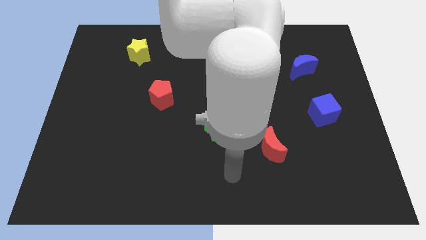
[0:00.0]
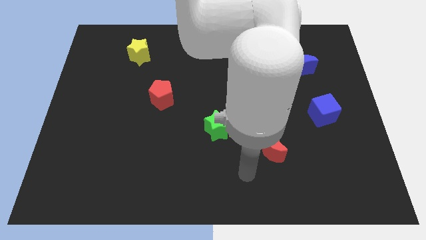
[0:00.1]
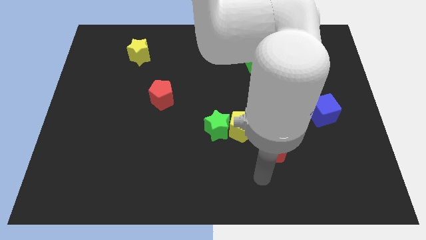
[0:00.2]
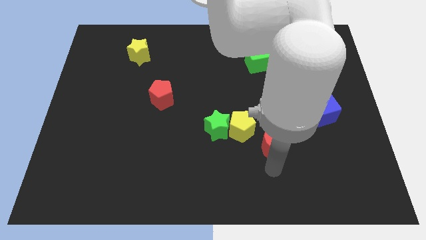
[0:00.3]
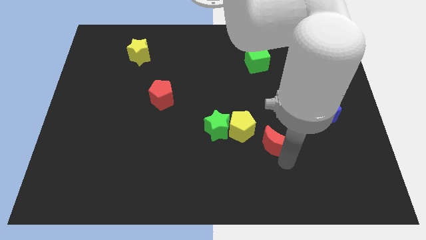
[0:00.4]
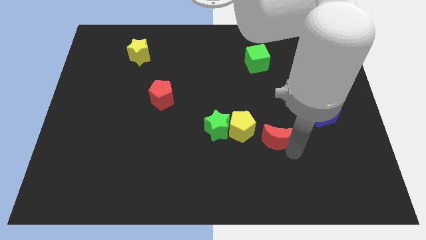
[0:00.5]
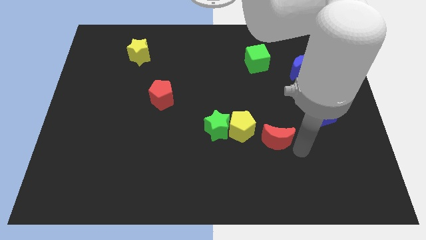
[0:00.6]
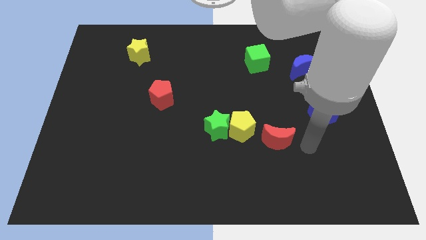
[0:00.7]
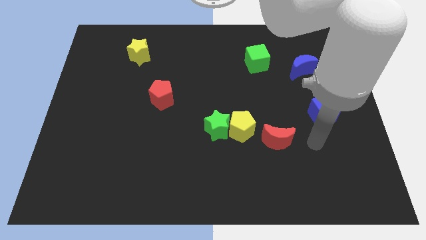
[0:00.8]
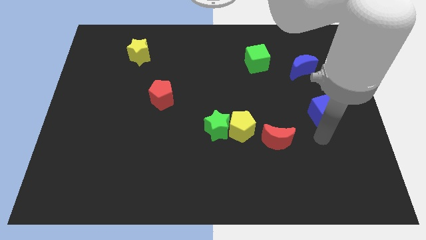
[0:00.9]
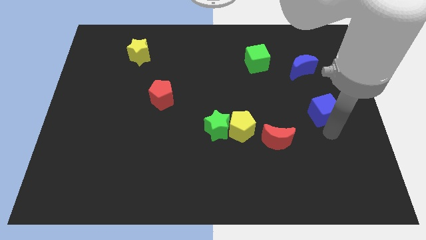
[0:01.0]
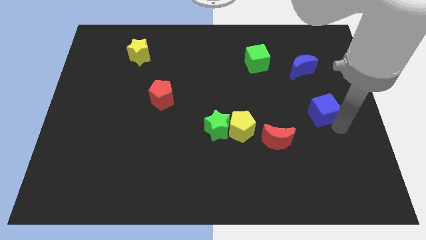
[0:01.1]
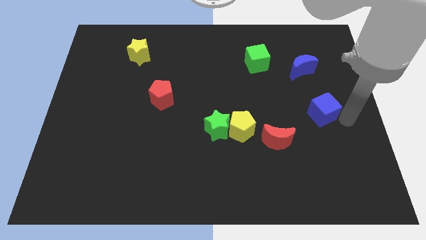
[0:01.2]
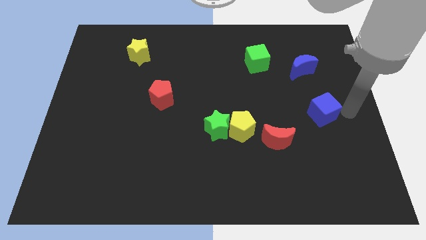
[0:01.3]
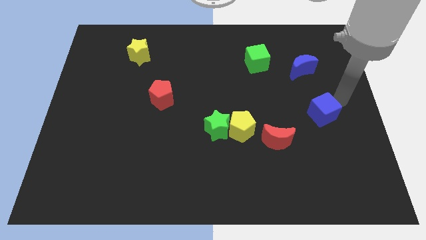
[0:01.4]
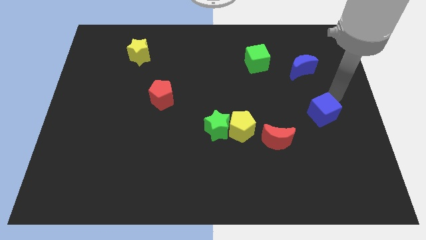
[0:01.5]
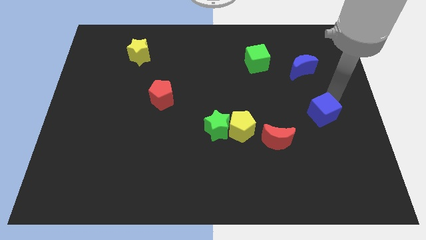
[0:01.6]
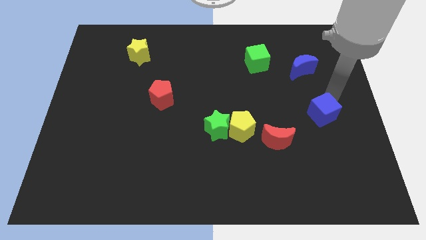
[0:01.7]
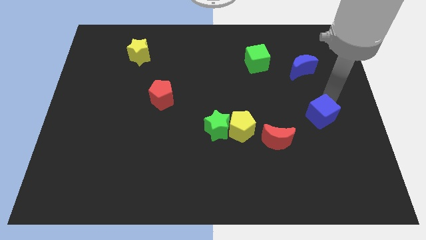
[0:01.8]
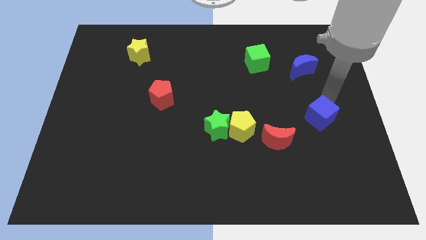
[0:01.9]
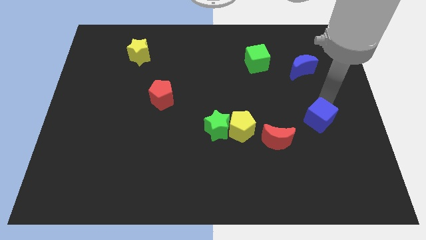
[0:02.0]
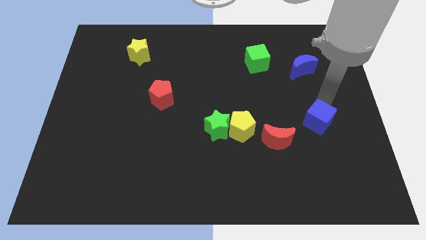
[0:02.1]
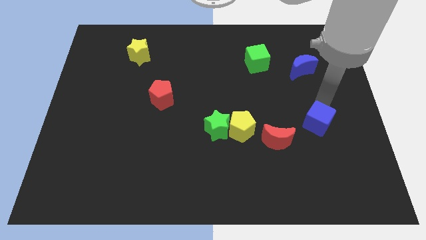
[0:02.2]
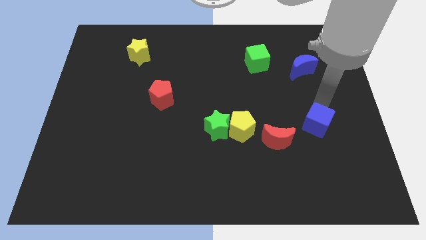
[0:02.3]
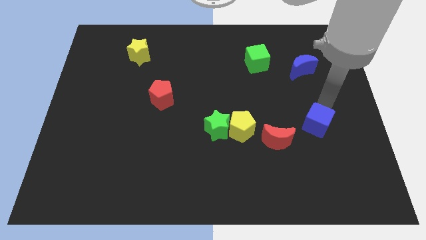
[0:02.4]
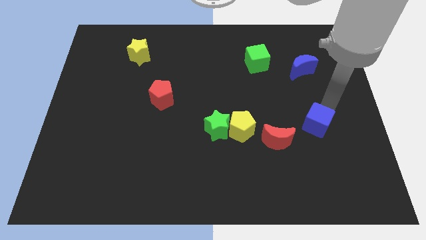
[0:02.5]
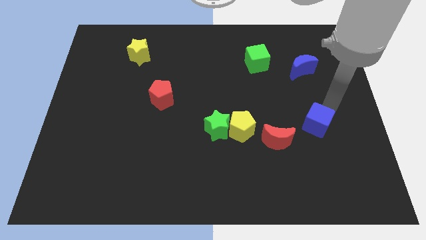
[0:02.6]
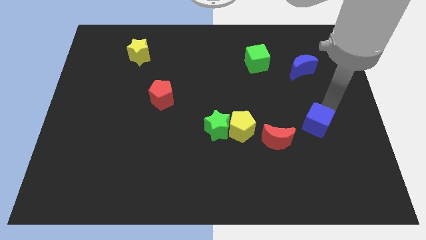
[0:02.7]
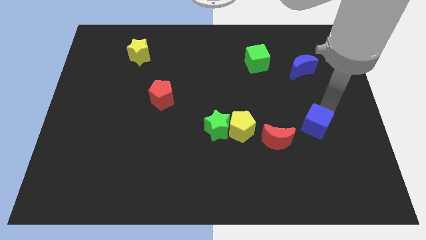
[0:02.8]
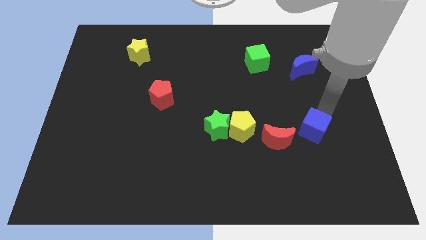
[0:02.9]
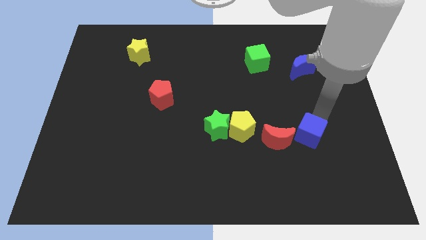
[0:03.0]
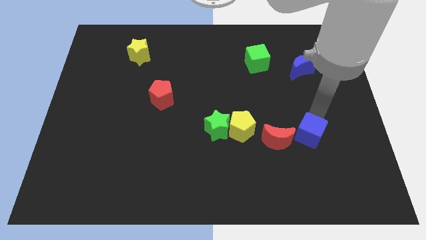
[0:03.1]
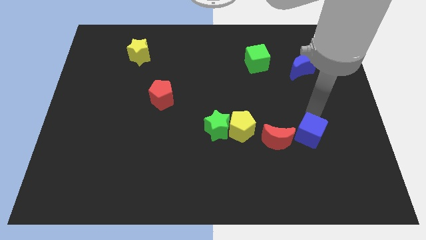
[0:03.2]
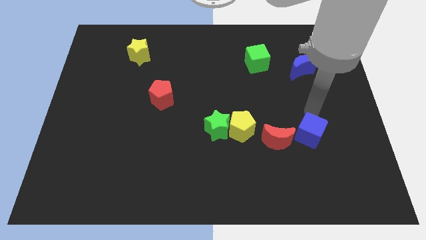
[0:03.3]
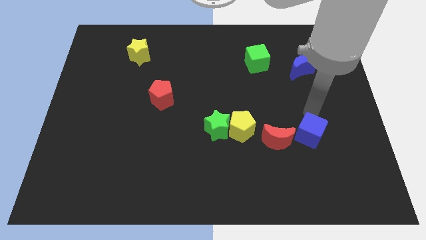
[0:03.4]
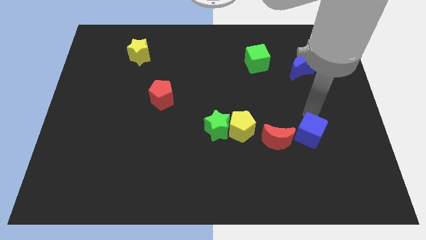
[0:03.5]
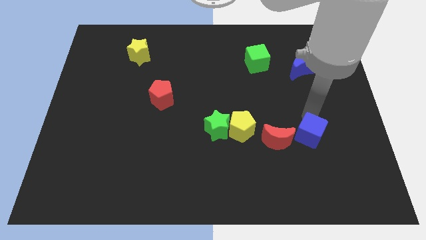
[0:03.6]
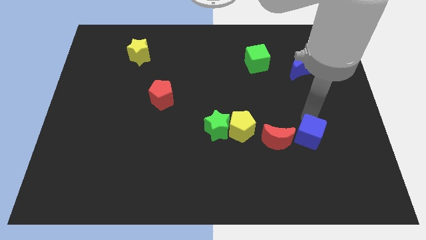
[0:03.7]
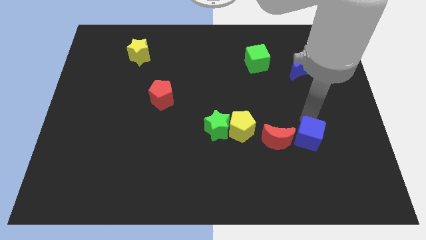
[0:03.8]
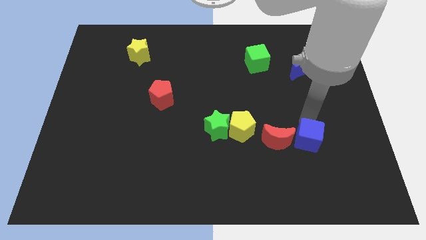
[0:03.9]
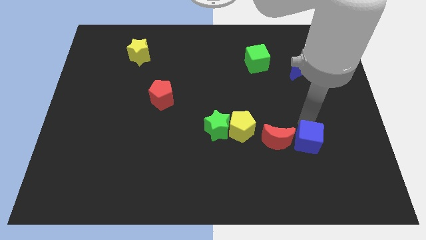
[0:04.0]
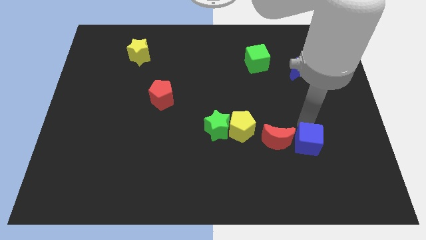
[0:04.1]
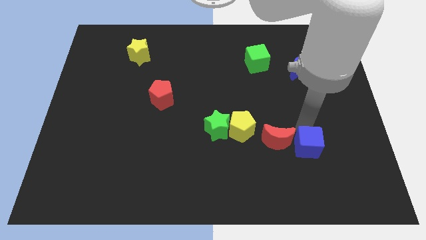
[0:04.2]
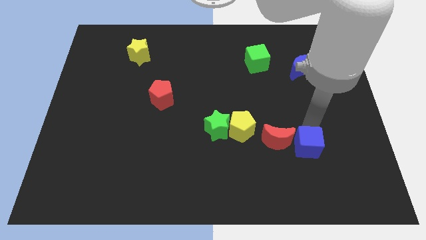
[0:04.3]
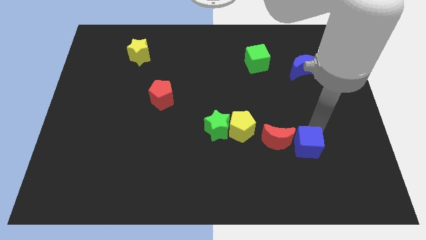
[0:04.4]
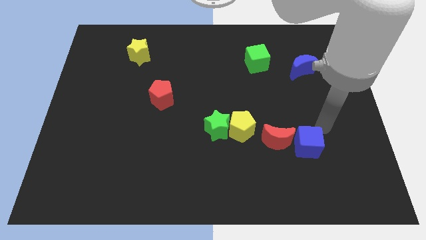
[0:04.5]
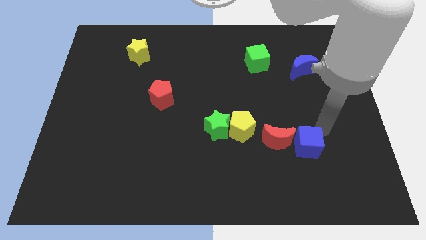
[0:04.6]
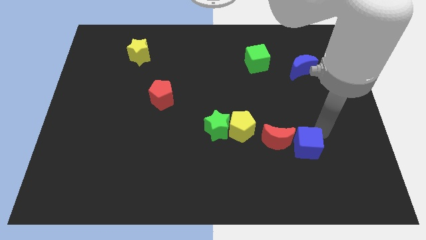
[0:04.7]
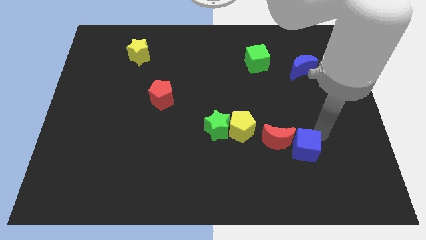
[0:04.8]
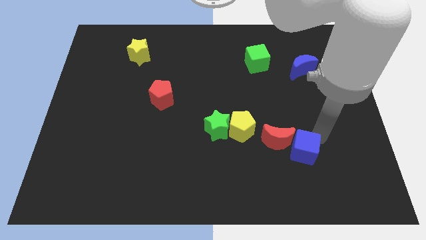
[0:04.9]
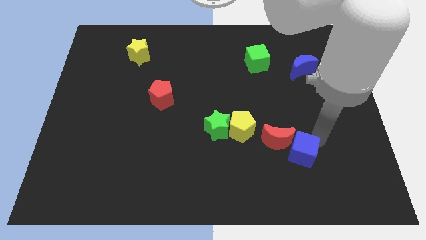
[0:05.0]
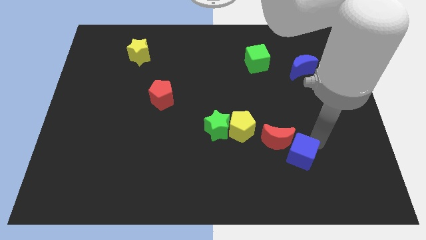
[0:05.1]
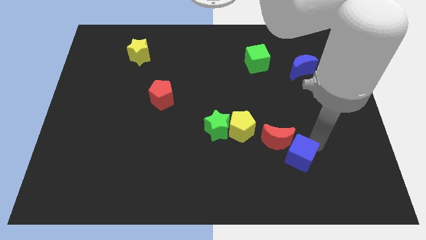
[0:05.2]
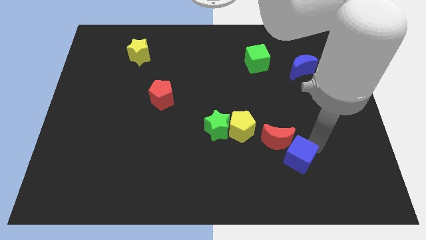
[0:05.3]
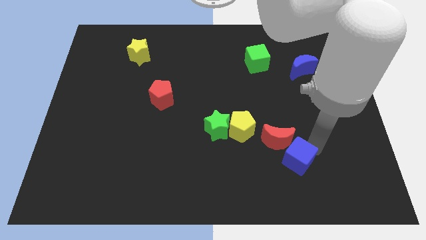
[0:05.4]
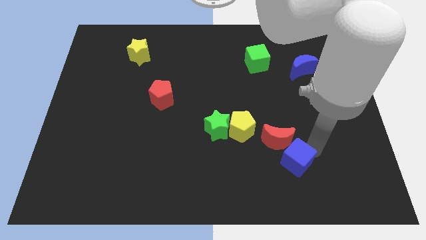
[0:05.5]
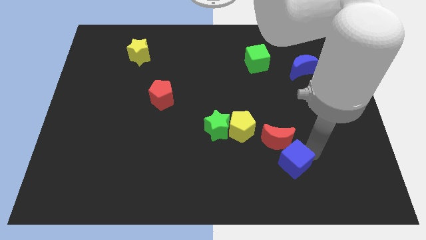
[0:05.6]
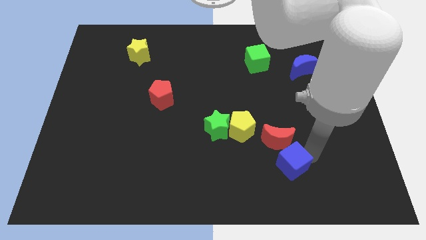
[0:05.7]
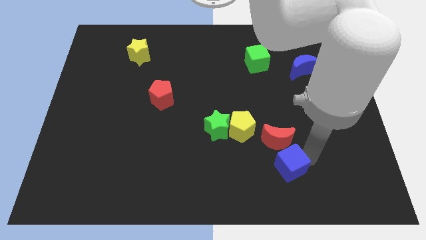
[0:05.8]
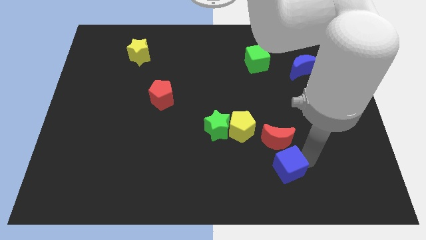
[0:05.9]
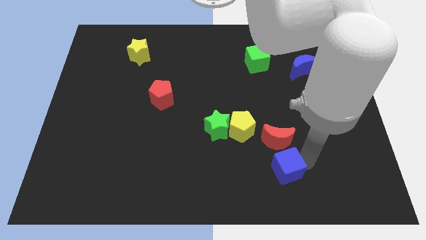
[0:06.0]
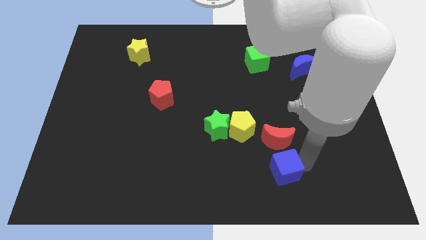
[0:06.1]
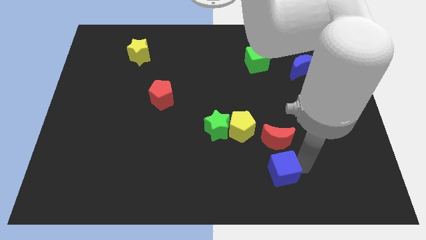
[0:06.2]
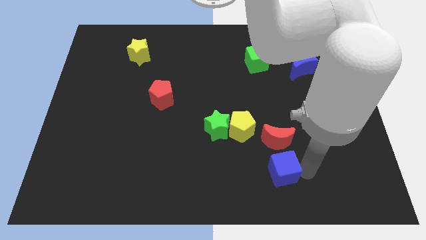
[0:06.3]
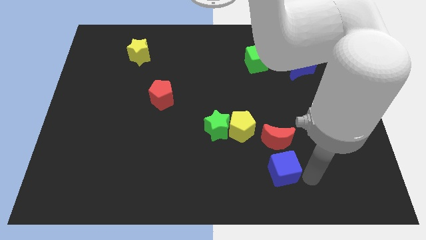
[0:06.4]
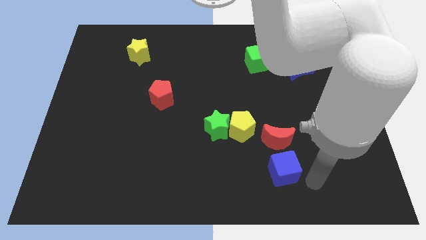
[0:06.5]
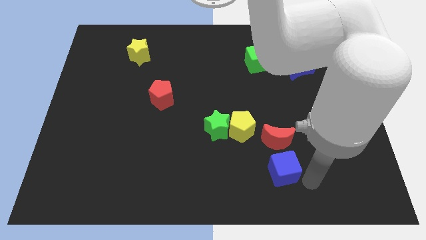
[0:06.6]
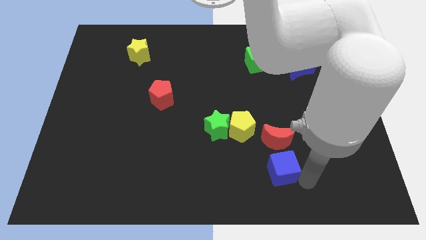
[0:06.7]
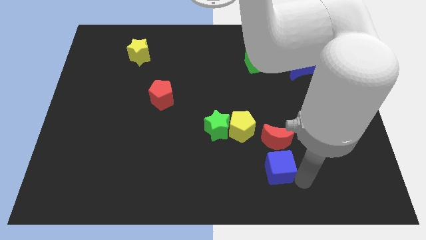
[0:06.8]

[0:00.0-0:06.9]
push the blue cube diagonally down and to the left of the red moon

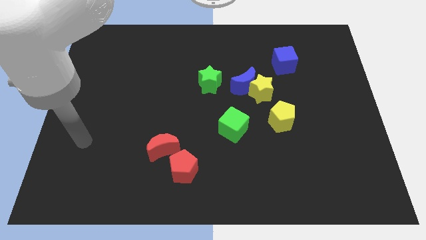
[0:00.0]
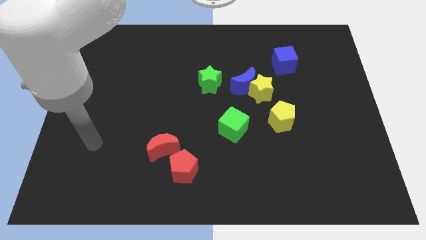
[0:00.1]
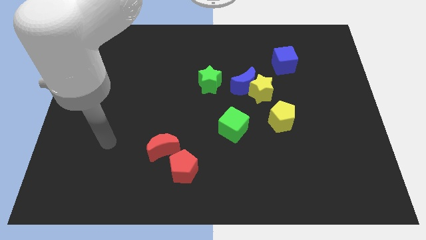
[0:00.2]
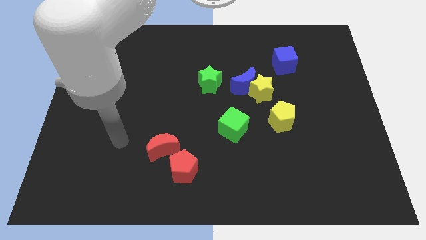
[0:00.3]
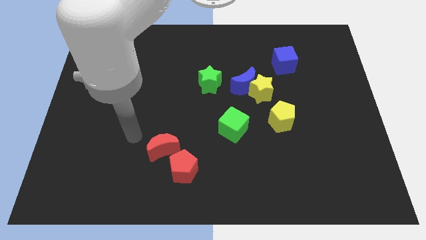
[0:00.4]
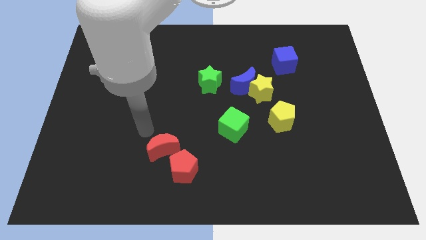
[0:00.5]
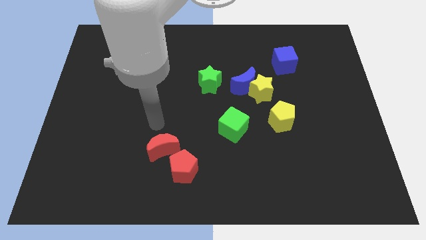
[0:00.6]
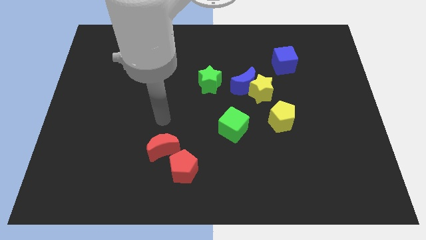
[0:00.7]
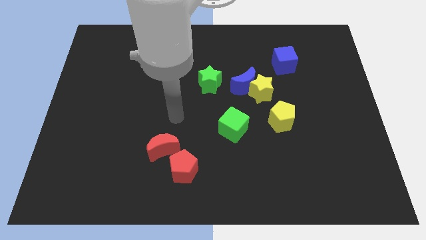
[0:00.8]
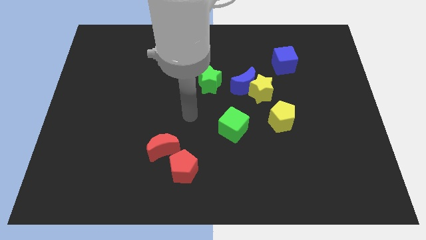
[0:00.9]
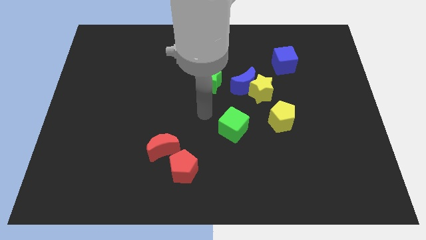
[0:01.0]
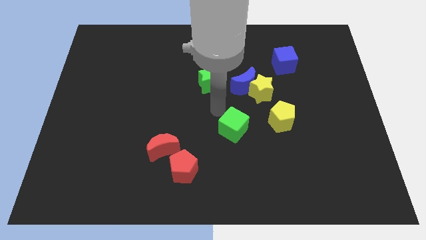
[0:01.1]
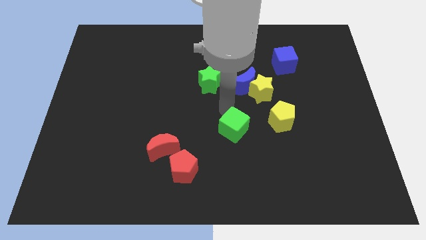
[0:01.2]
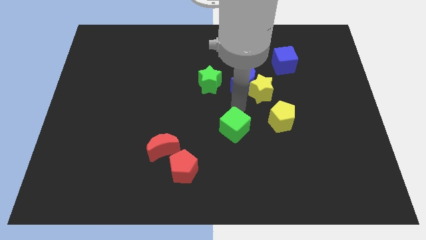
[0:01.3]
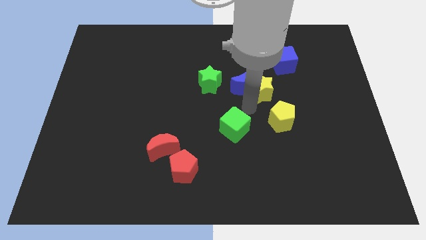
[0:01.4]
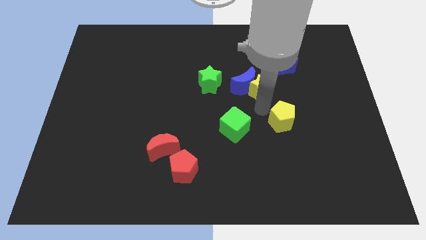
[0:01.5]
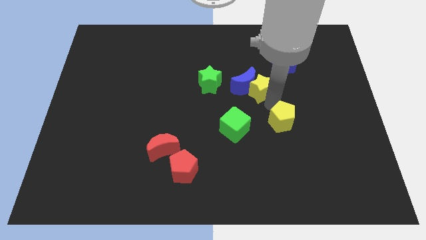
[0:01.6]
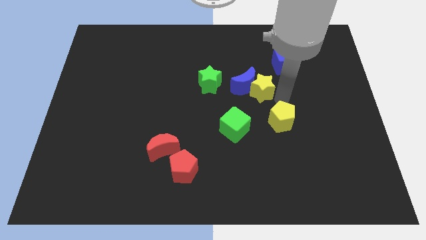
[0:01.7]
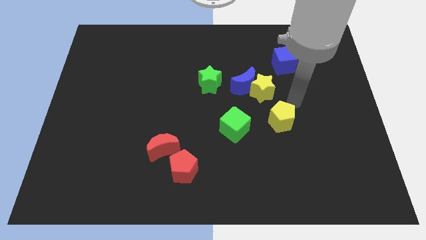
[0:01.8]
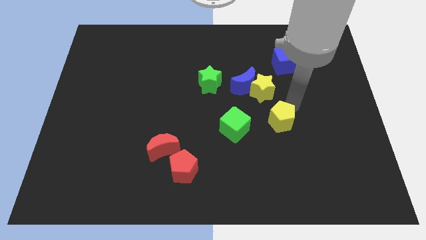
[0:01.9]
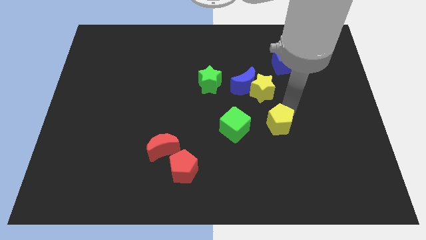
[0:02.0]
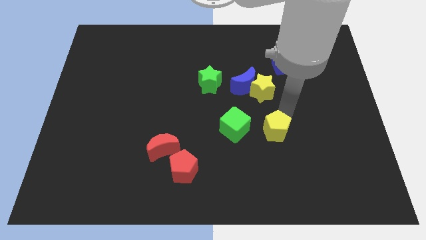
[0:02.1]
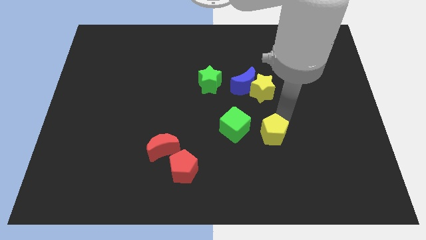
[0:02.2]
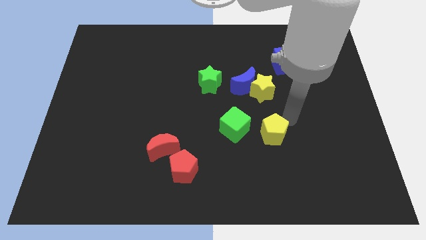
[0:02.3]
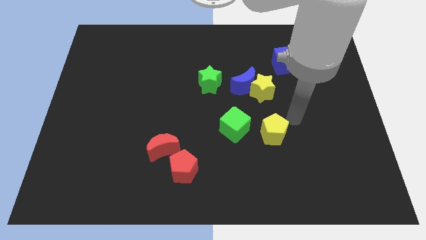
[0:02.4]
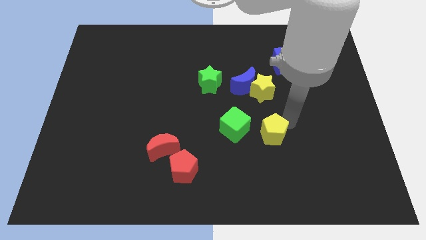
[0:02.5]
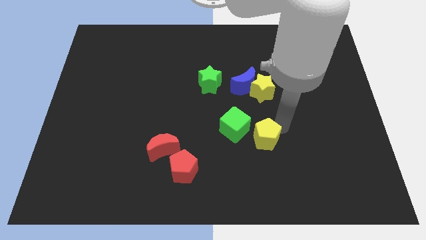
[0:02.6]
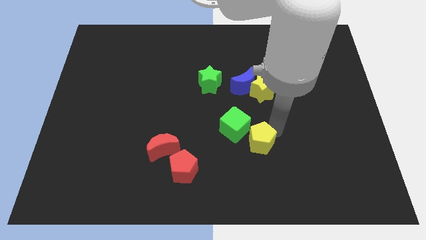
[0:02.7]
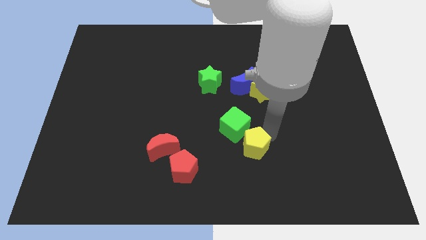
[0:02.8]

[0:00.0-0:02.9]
push the yellow pentagon to the bottom of the green cube
